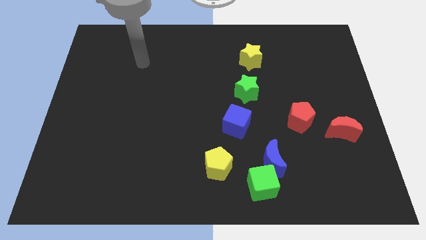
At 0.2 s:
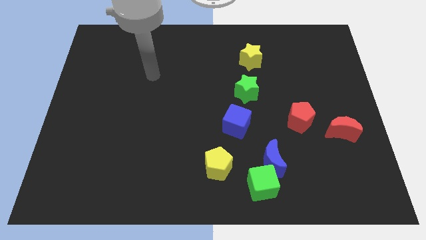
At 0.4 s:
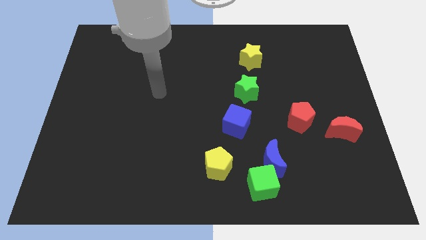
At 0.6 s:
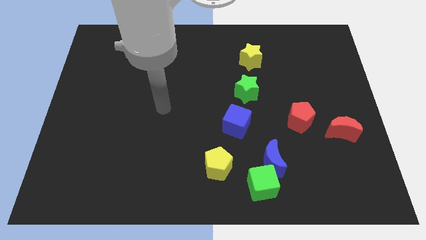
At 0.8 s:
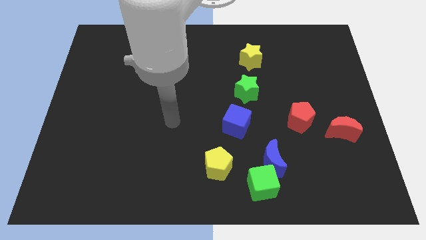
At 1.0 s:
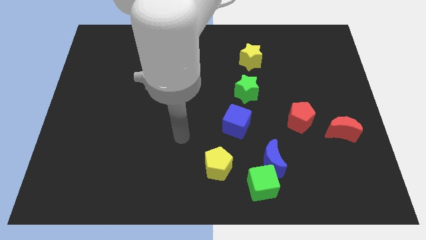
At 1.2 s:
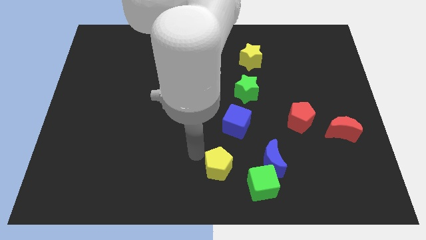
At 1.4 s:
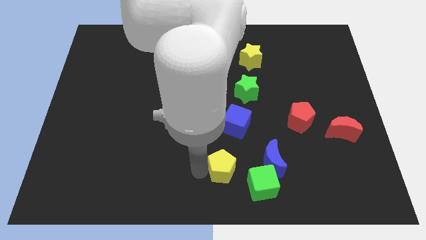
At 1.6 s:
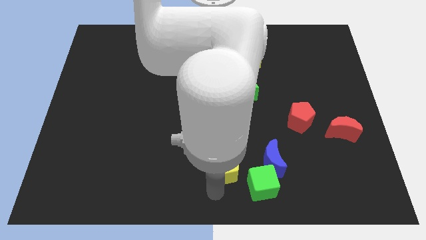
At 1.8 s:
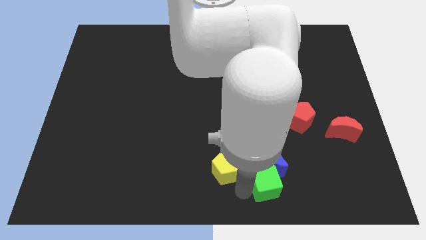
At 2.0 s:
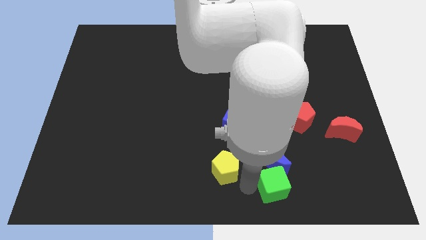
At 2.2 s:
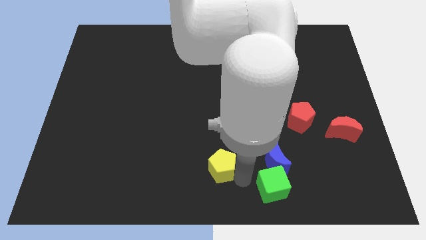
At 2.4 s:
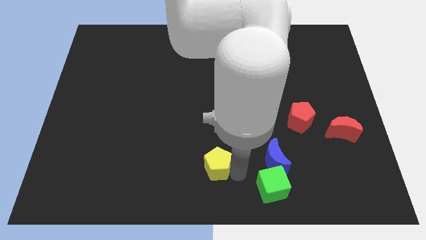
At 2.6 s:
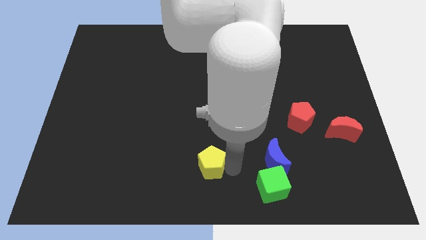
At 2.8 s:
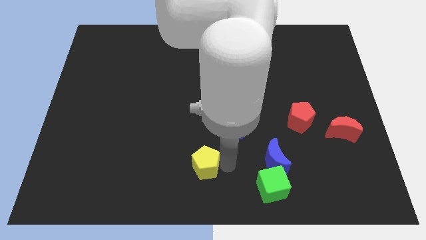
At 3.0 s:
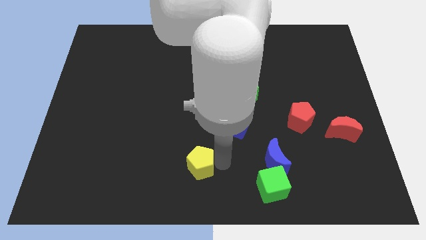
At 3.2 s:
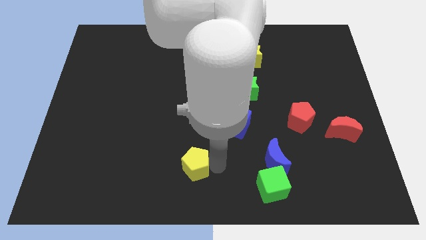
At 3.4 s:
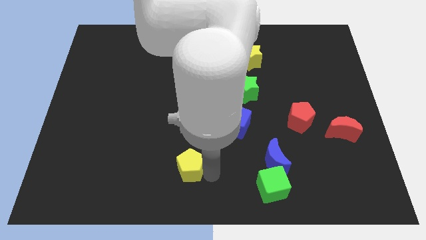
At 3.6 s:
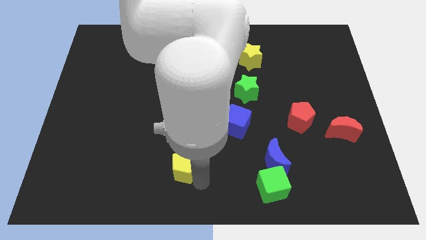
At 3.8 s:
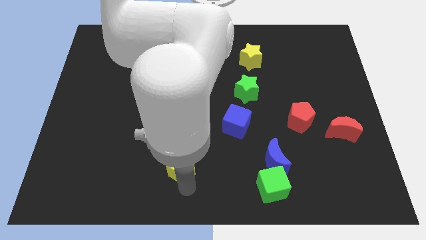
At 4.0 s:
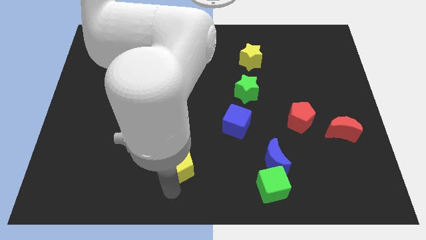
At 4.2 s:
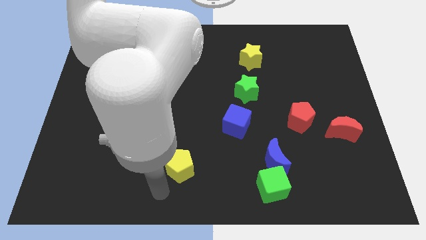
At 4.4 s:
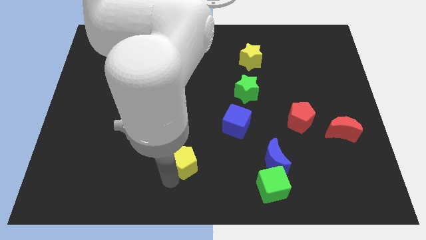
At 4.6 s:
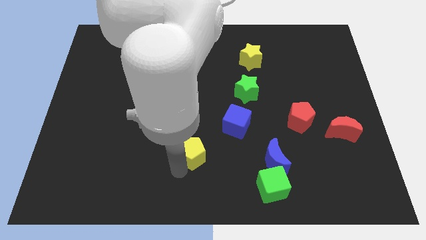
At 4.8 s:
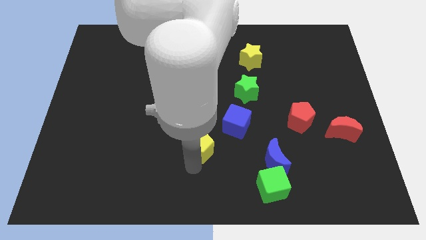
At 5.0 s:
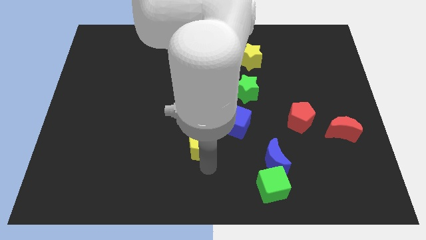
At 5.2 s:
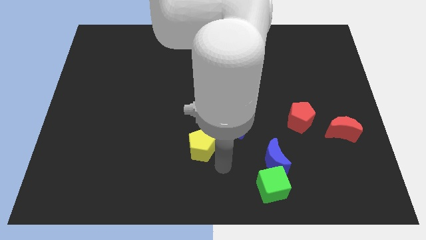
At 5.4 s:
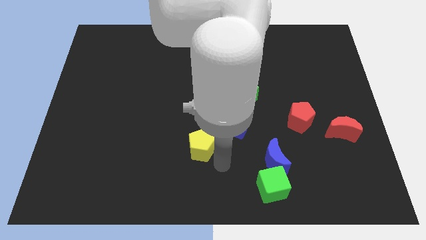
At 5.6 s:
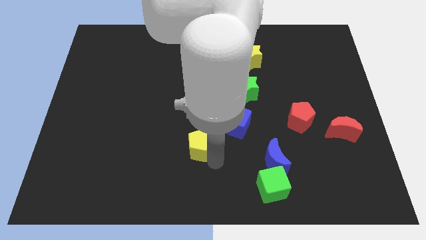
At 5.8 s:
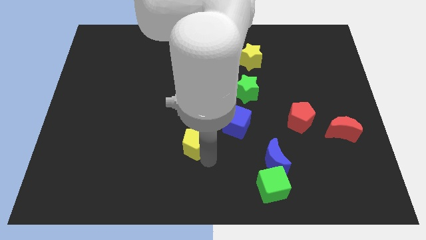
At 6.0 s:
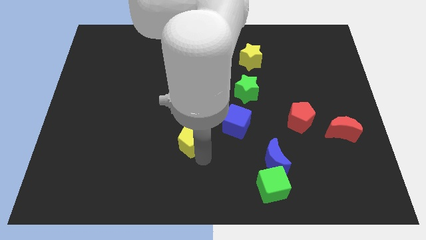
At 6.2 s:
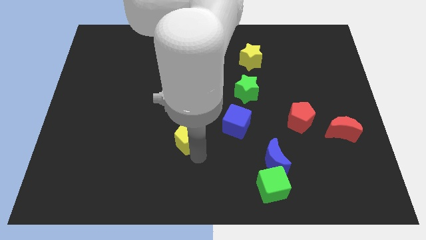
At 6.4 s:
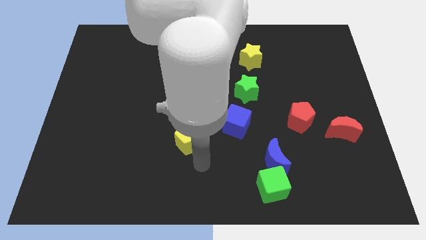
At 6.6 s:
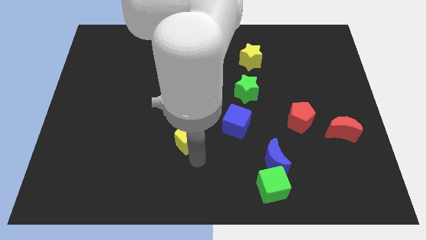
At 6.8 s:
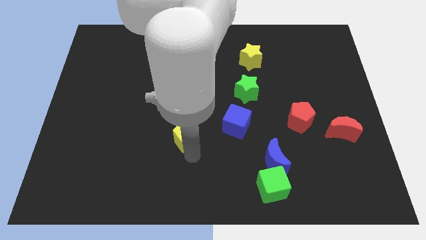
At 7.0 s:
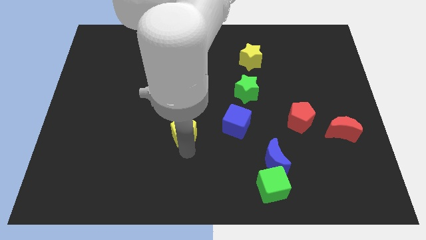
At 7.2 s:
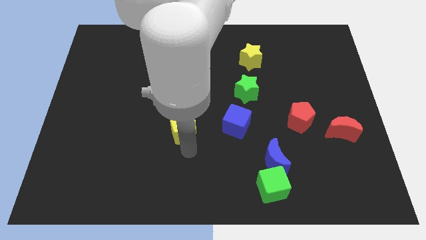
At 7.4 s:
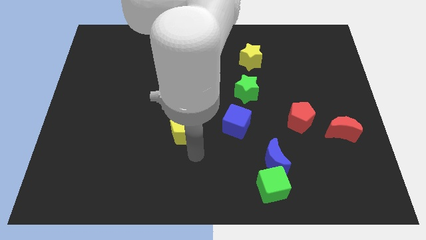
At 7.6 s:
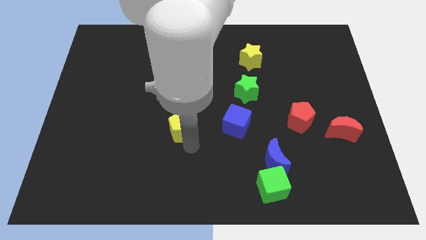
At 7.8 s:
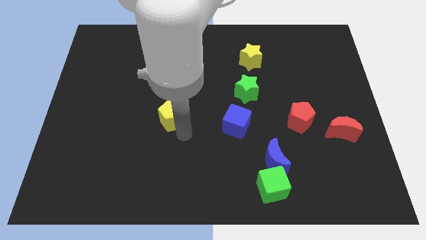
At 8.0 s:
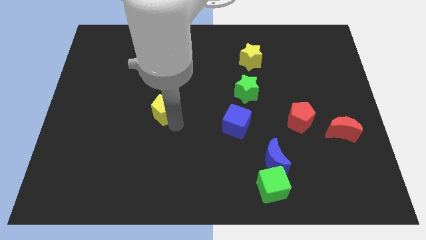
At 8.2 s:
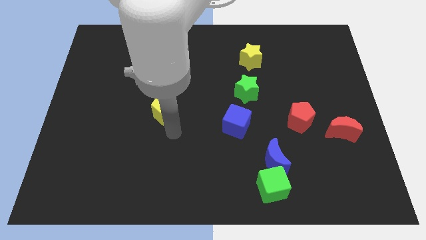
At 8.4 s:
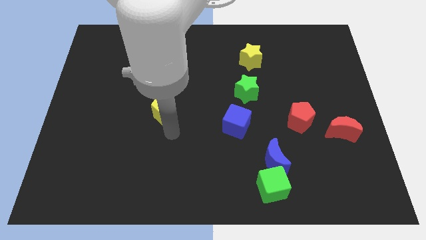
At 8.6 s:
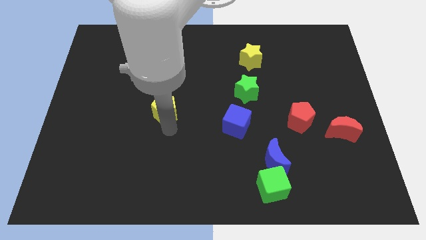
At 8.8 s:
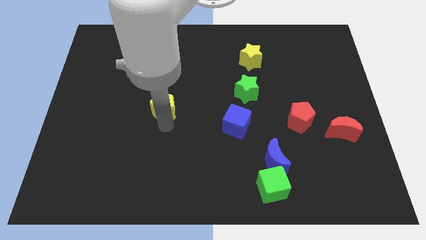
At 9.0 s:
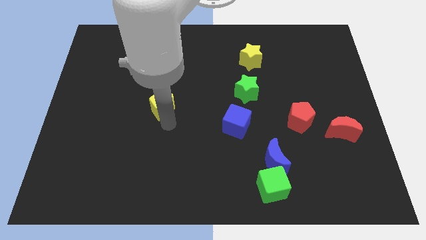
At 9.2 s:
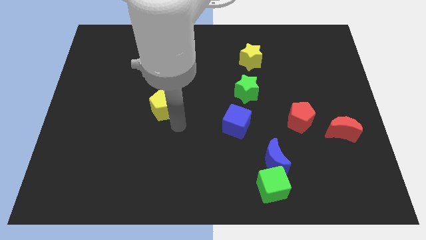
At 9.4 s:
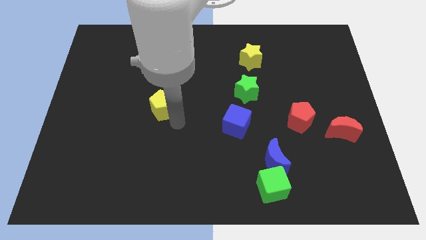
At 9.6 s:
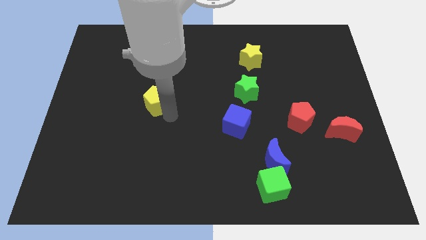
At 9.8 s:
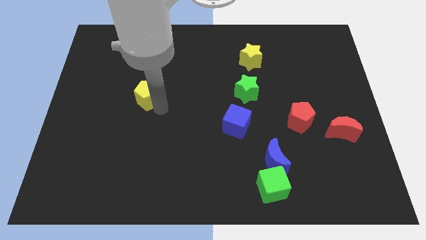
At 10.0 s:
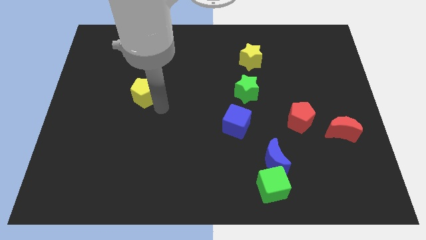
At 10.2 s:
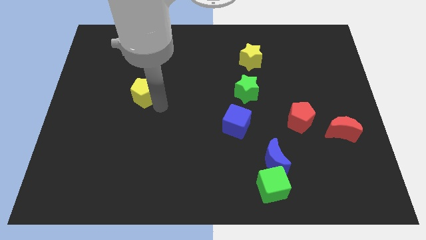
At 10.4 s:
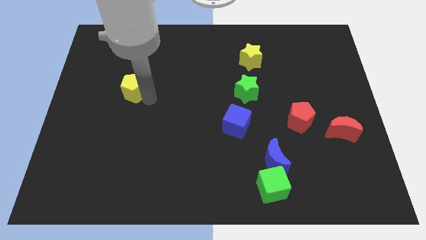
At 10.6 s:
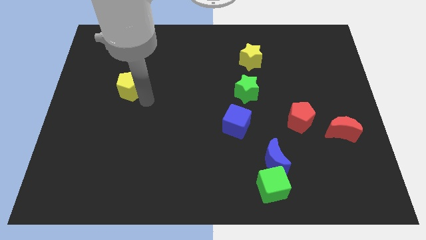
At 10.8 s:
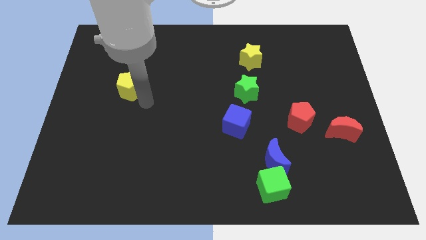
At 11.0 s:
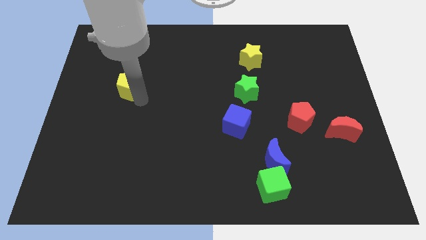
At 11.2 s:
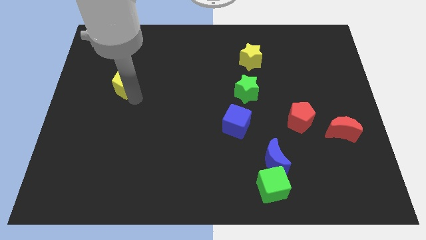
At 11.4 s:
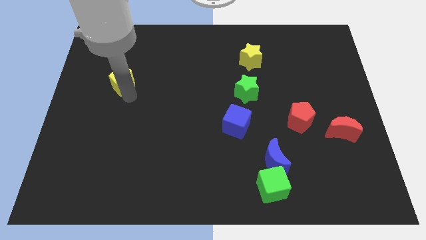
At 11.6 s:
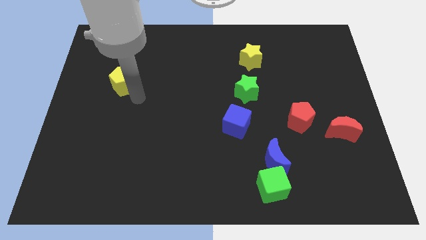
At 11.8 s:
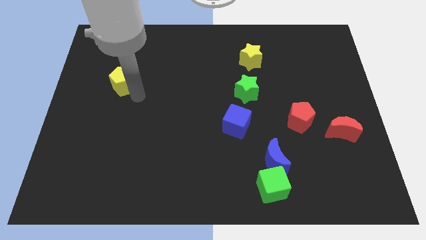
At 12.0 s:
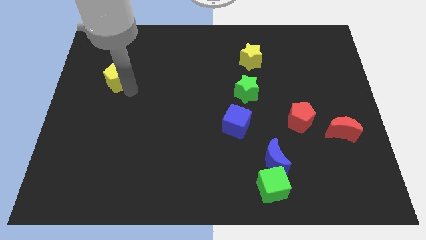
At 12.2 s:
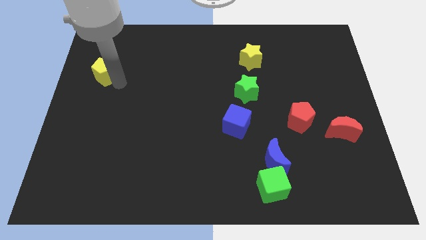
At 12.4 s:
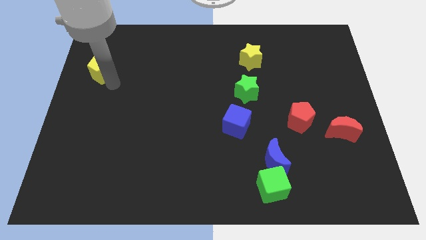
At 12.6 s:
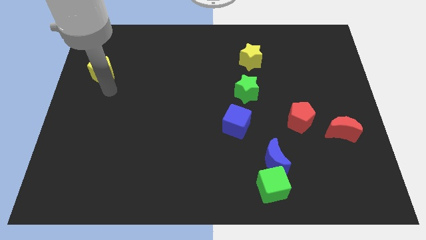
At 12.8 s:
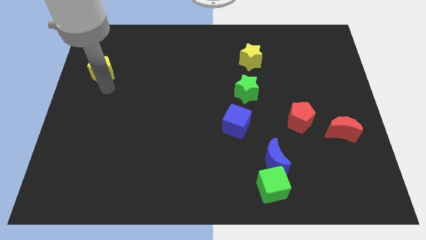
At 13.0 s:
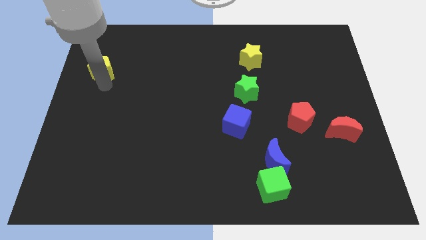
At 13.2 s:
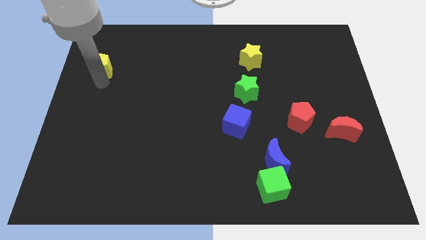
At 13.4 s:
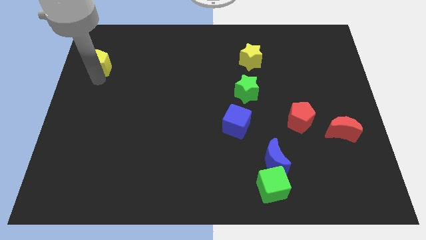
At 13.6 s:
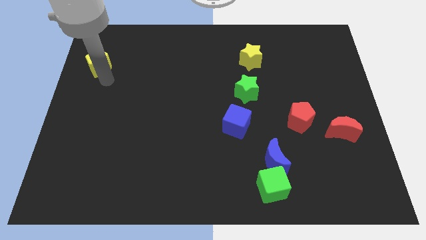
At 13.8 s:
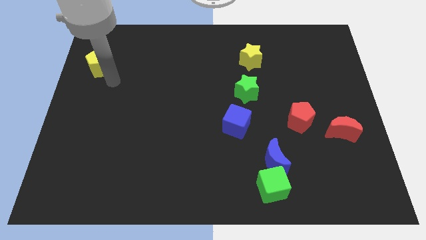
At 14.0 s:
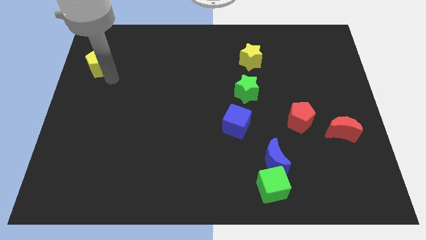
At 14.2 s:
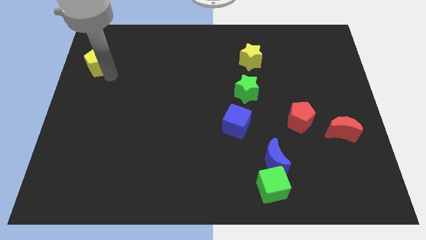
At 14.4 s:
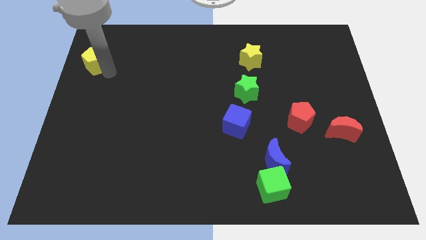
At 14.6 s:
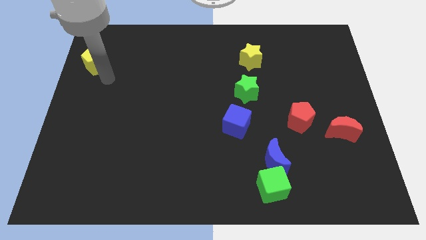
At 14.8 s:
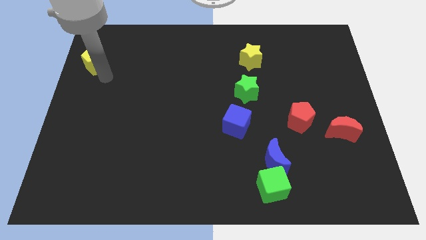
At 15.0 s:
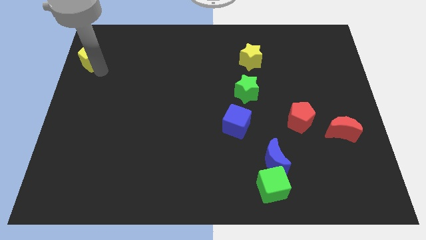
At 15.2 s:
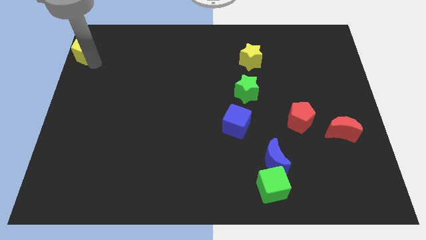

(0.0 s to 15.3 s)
slide the yellow pentagon to the top left
